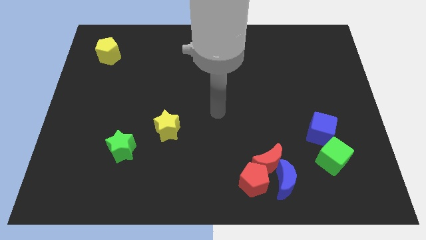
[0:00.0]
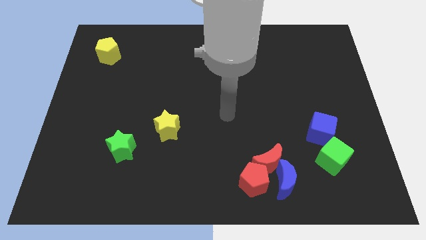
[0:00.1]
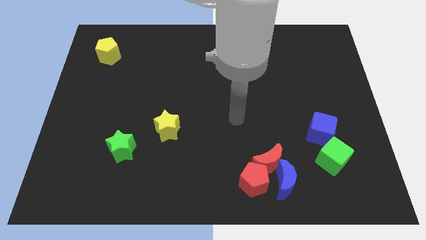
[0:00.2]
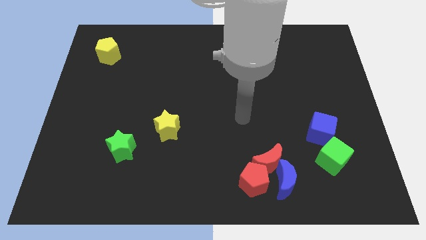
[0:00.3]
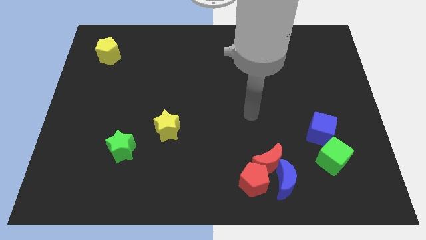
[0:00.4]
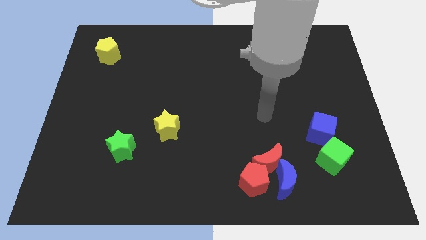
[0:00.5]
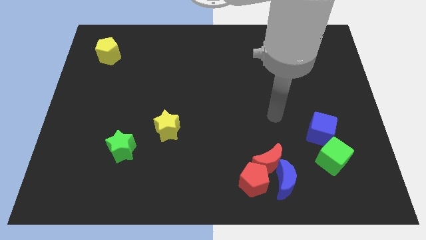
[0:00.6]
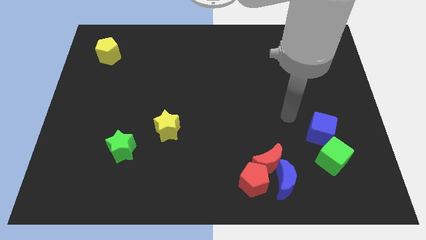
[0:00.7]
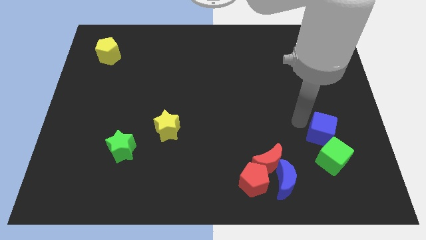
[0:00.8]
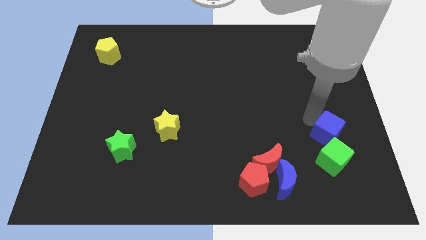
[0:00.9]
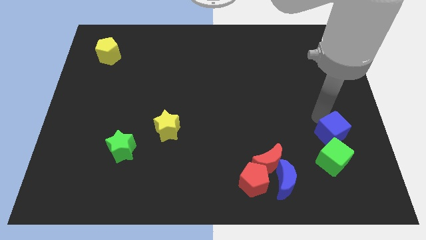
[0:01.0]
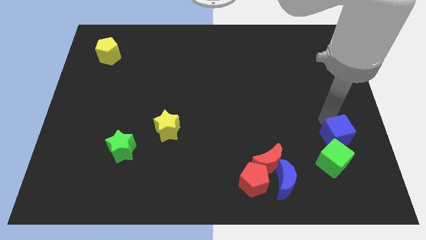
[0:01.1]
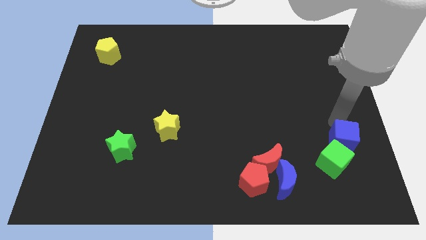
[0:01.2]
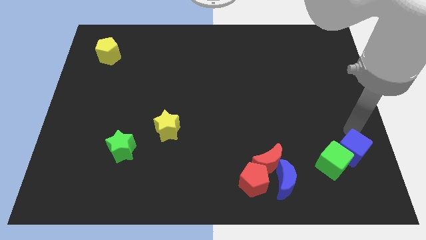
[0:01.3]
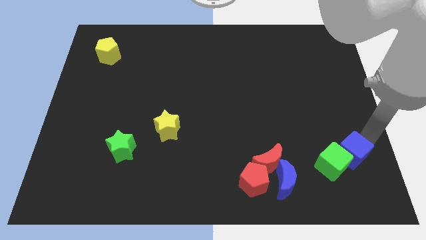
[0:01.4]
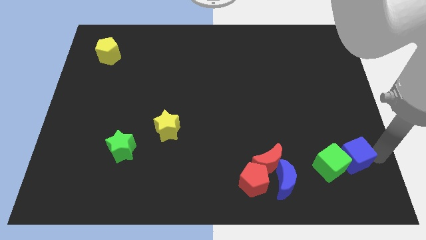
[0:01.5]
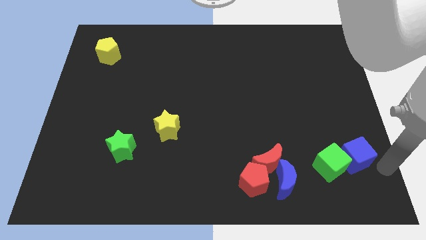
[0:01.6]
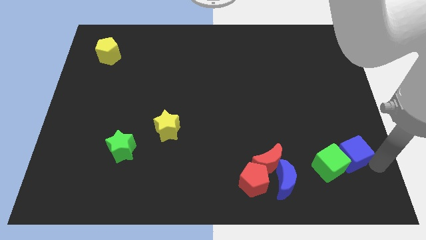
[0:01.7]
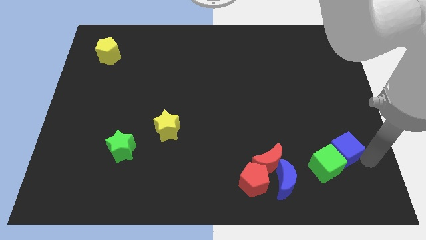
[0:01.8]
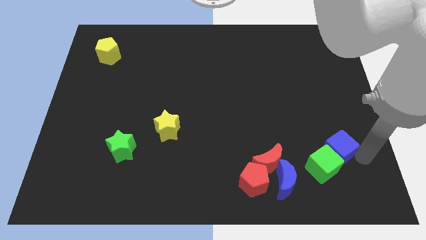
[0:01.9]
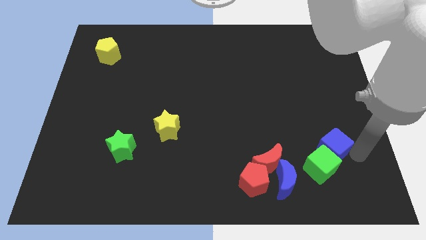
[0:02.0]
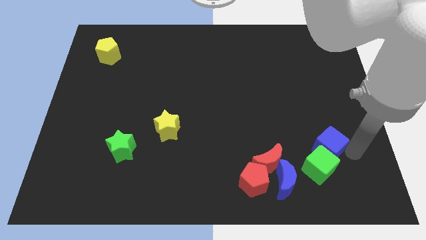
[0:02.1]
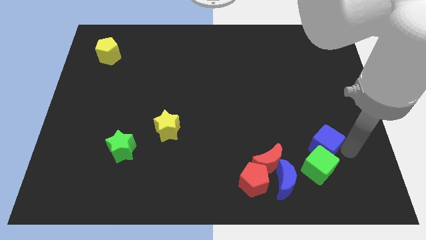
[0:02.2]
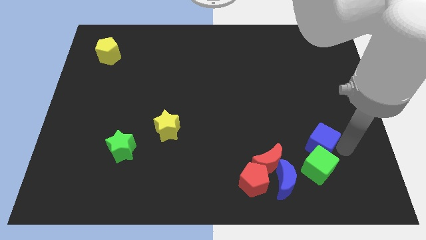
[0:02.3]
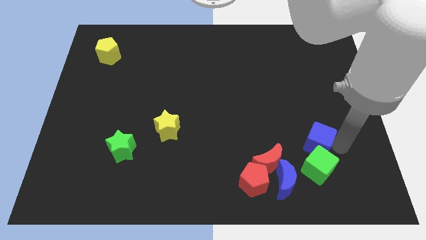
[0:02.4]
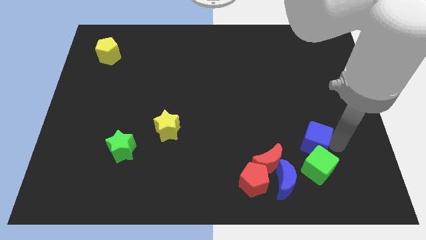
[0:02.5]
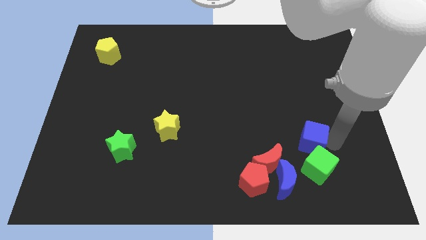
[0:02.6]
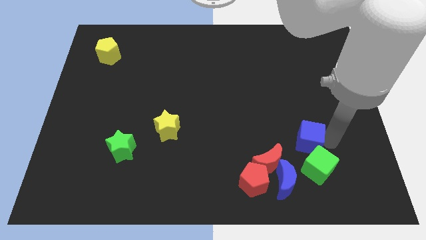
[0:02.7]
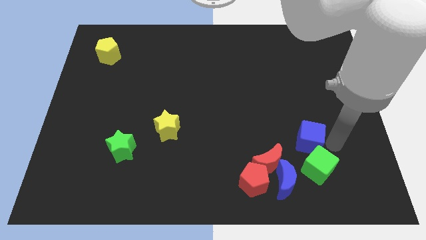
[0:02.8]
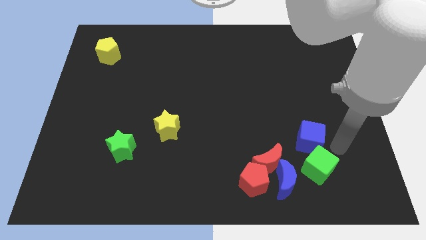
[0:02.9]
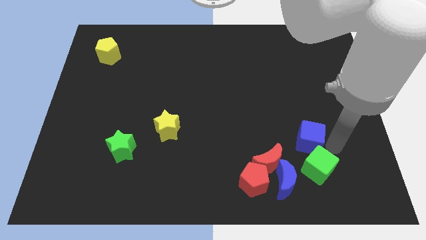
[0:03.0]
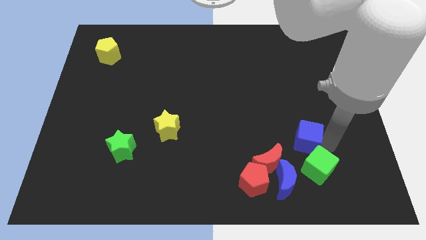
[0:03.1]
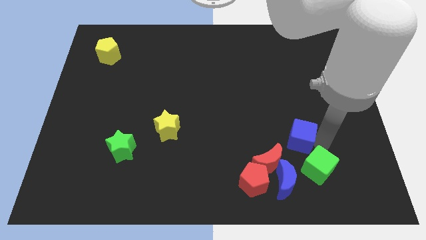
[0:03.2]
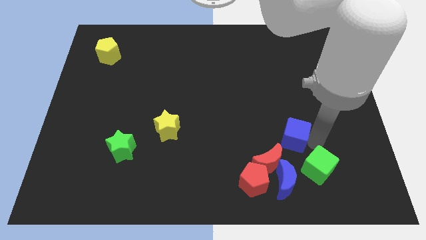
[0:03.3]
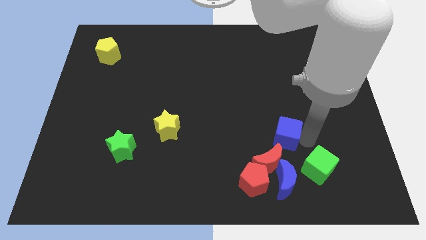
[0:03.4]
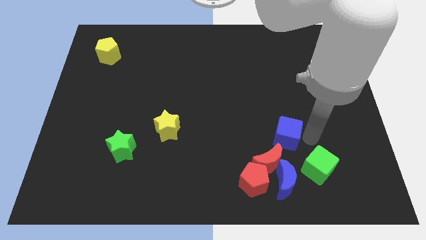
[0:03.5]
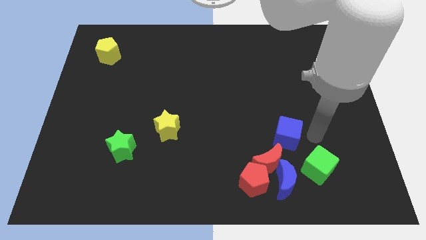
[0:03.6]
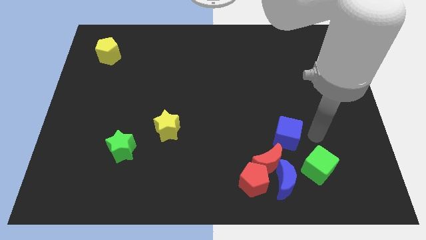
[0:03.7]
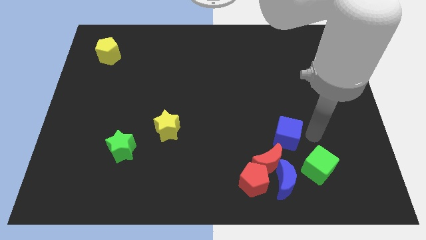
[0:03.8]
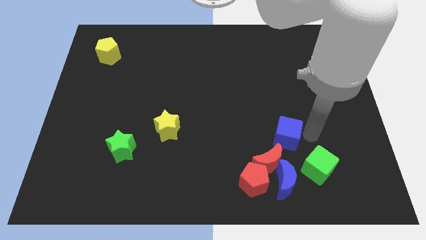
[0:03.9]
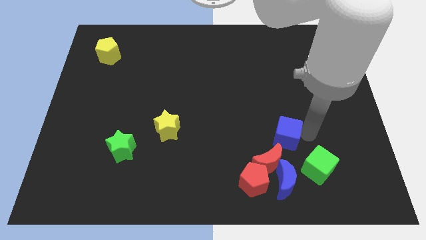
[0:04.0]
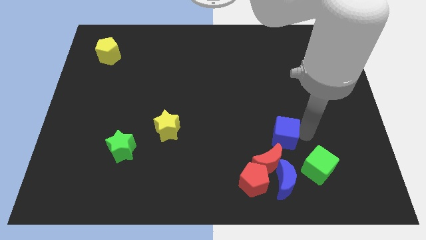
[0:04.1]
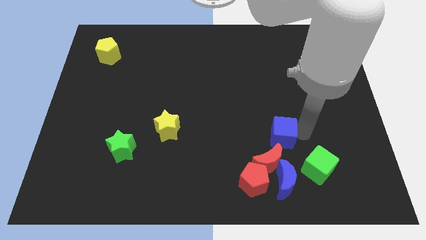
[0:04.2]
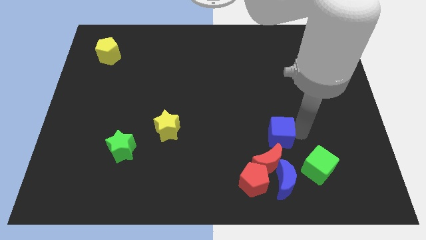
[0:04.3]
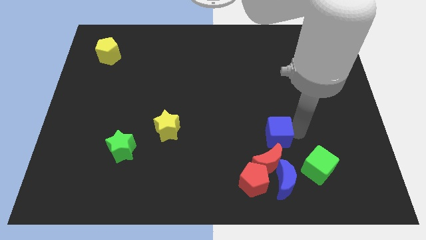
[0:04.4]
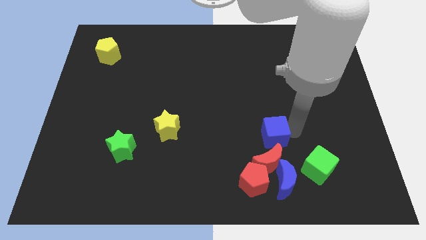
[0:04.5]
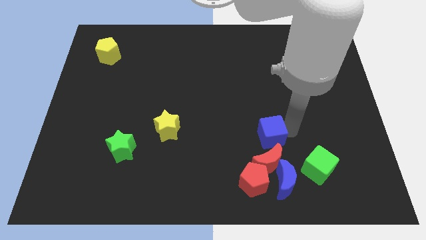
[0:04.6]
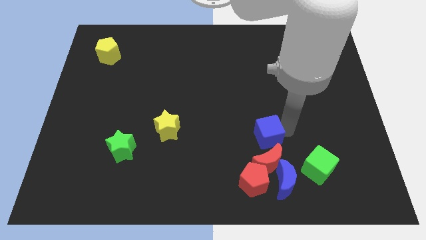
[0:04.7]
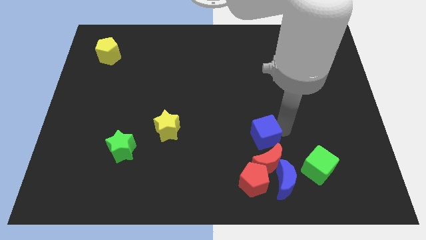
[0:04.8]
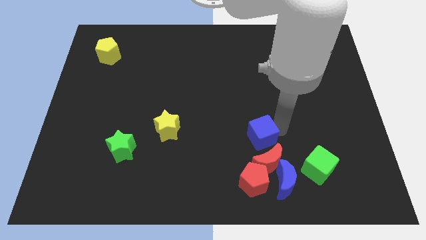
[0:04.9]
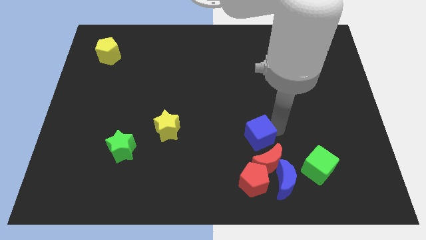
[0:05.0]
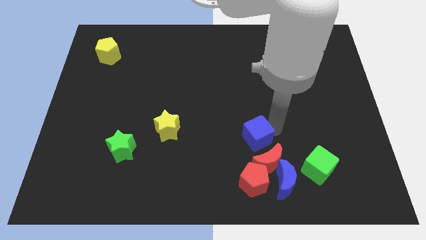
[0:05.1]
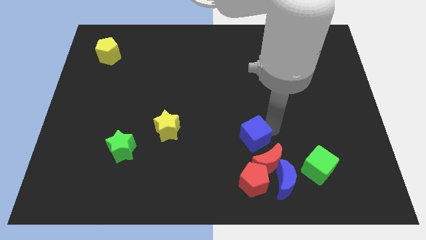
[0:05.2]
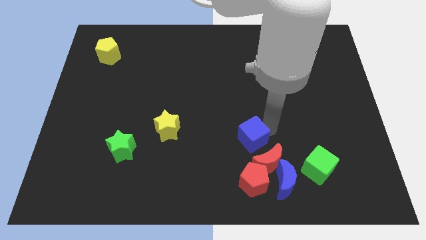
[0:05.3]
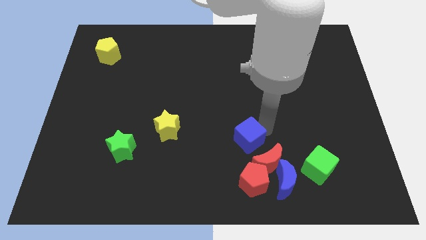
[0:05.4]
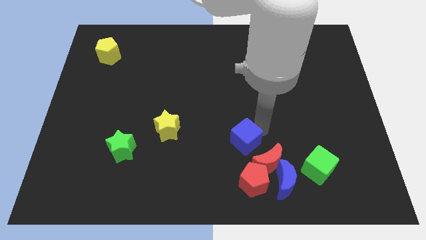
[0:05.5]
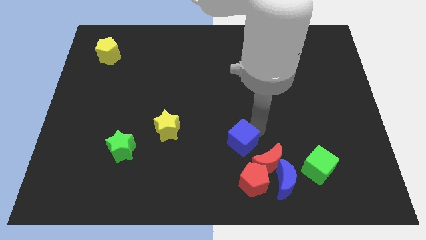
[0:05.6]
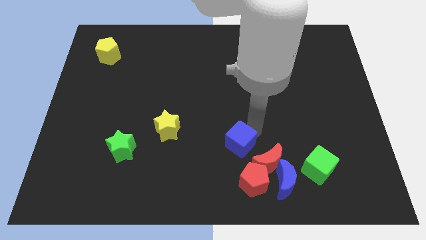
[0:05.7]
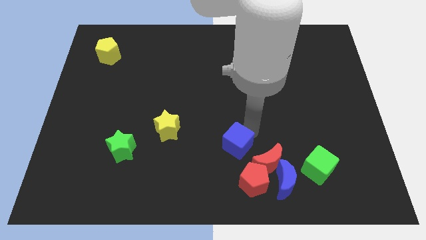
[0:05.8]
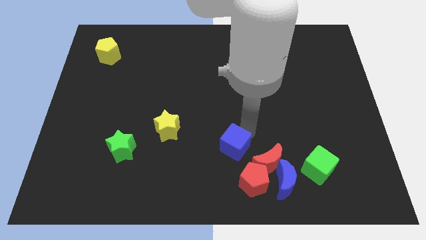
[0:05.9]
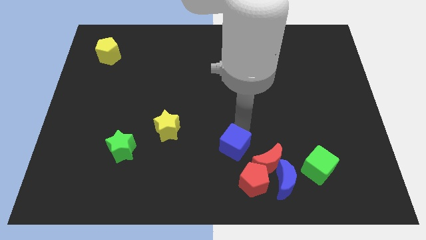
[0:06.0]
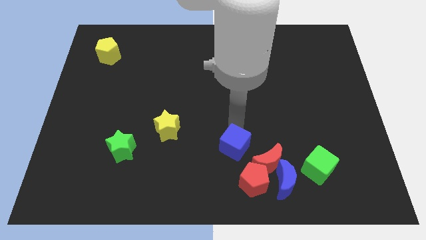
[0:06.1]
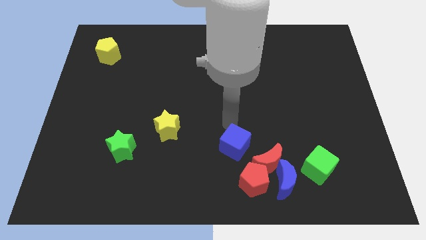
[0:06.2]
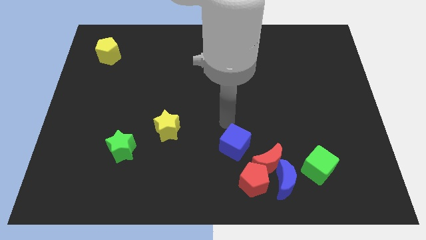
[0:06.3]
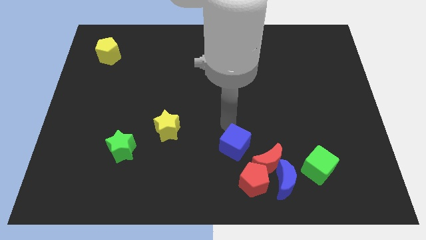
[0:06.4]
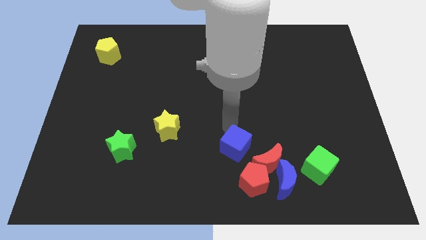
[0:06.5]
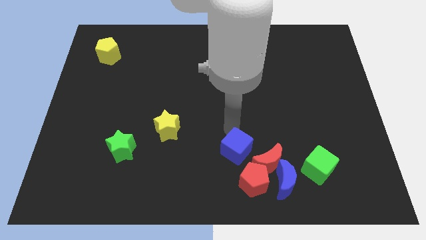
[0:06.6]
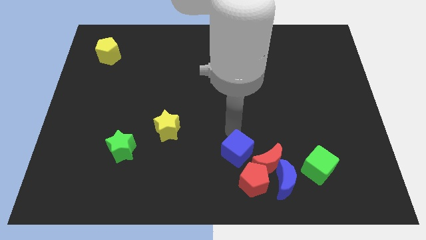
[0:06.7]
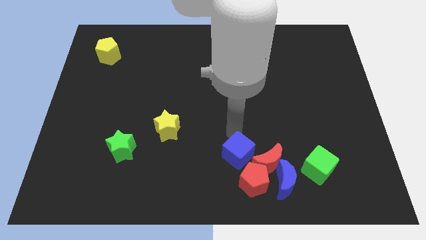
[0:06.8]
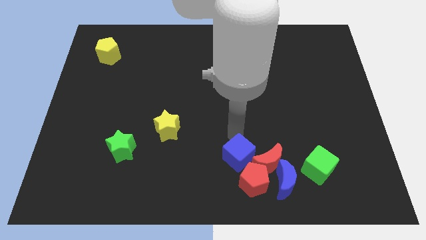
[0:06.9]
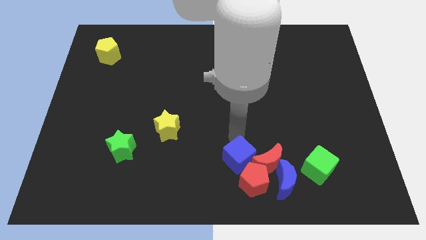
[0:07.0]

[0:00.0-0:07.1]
move the blue cube close to the red pentagon
